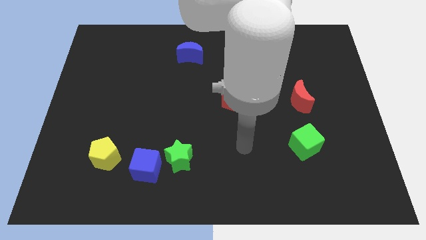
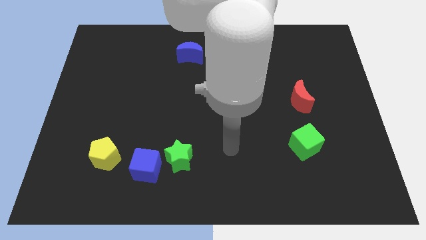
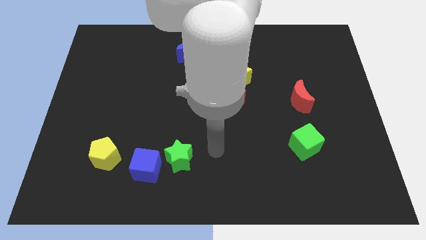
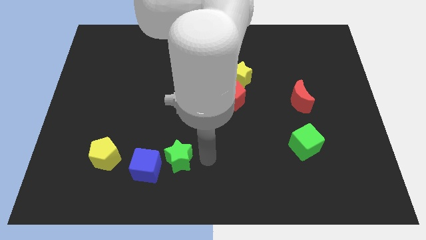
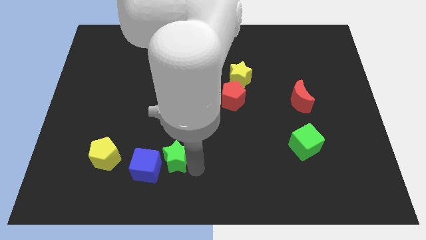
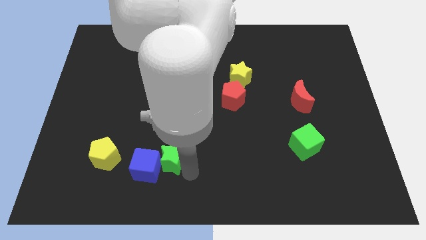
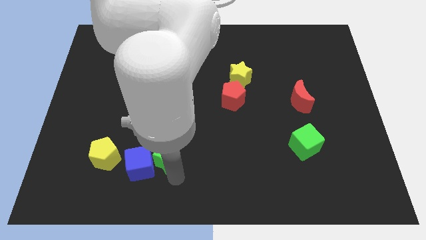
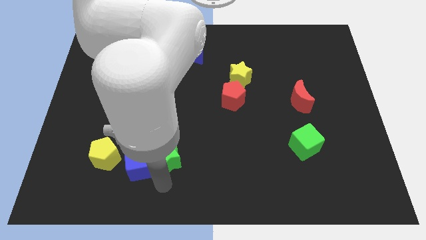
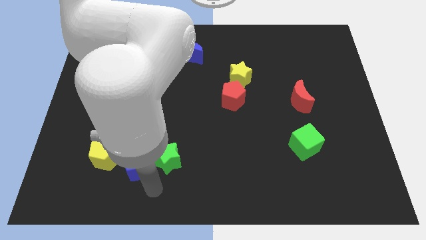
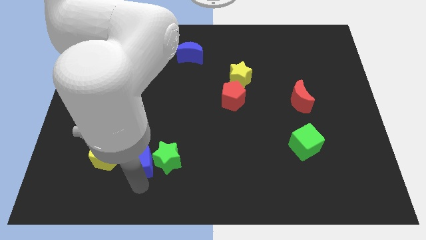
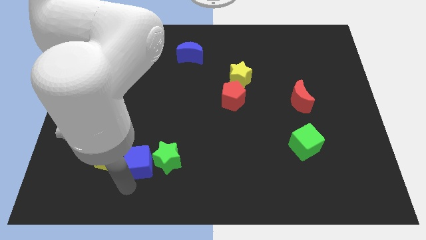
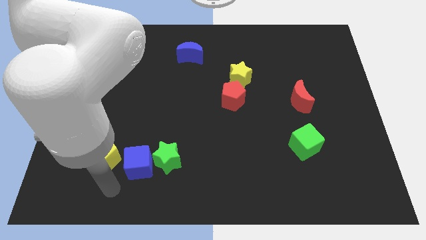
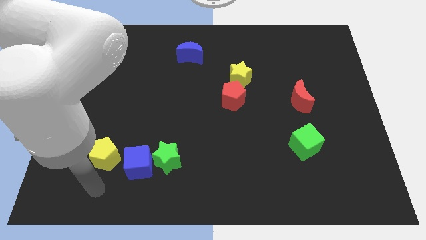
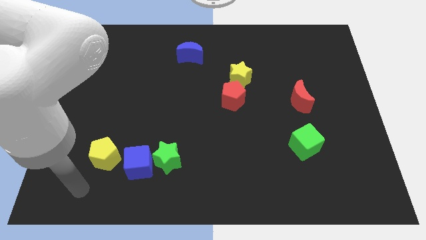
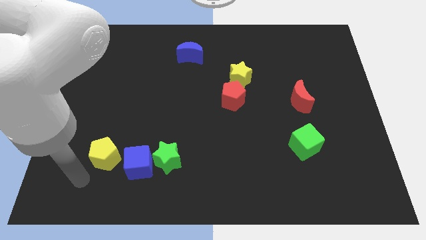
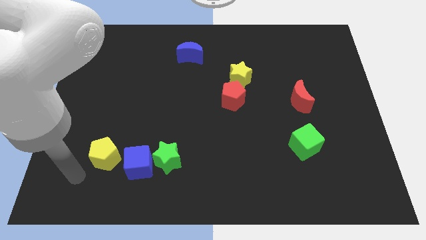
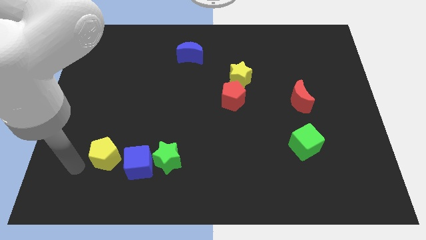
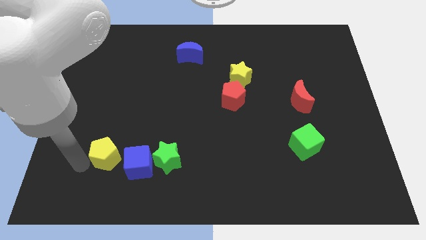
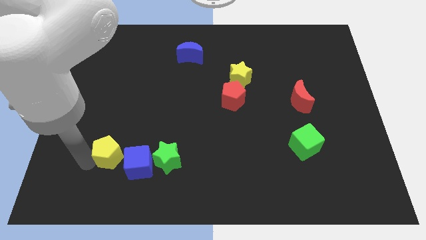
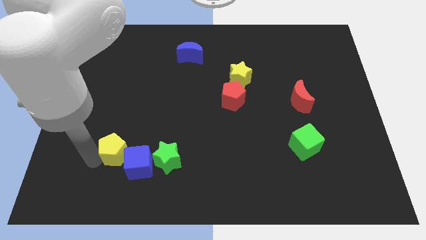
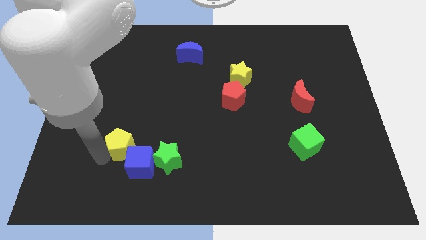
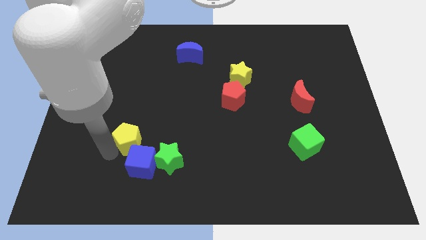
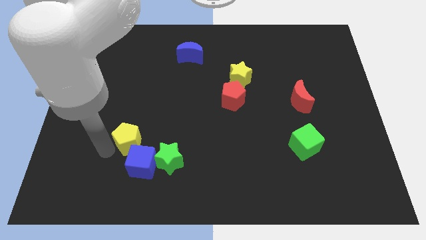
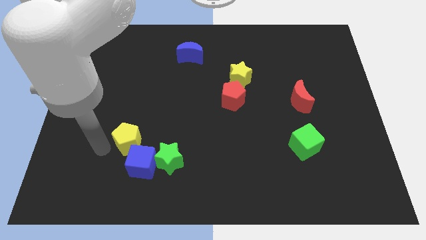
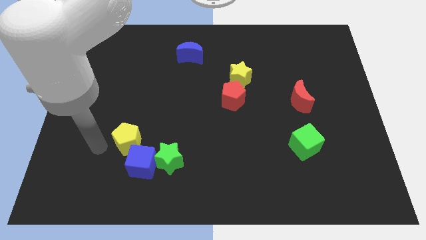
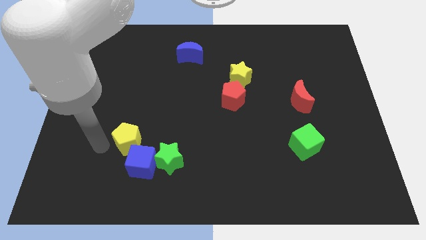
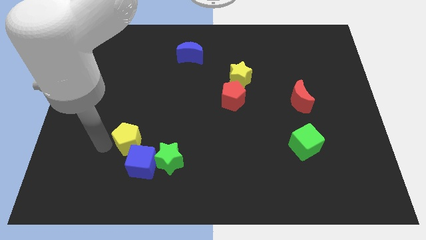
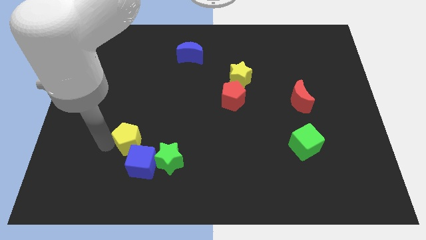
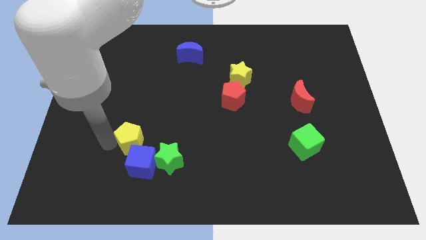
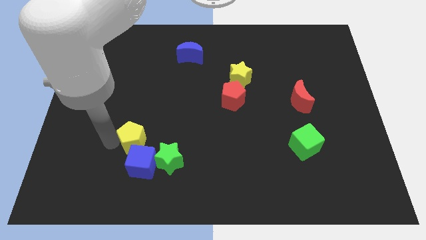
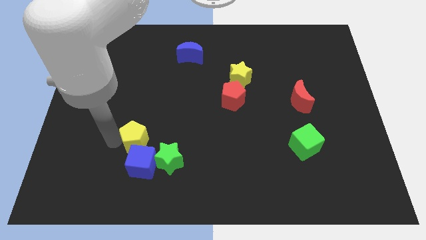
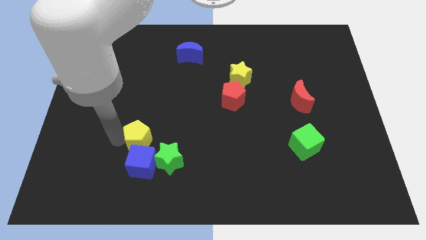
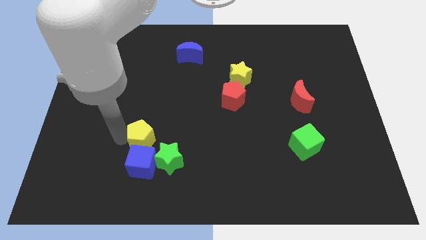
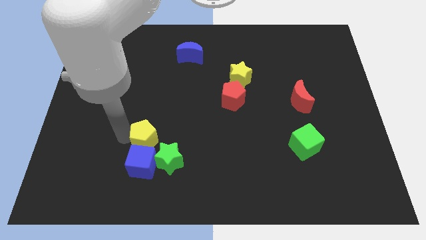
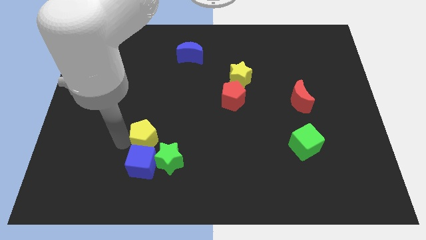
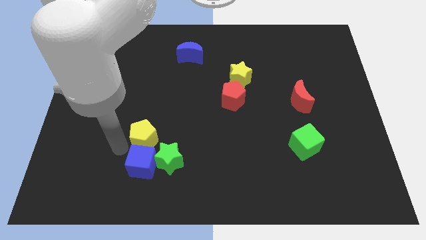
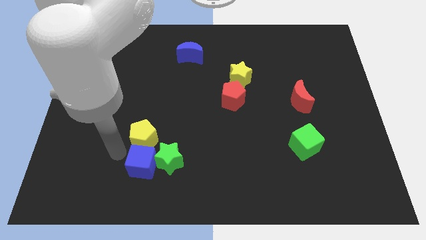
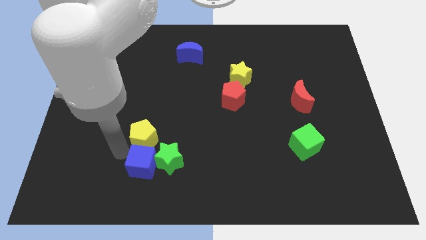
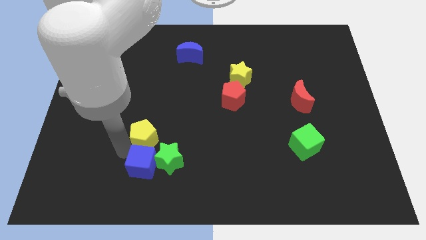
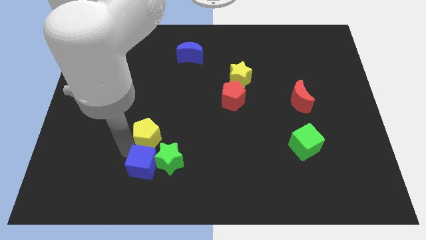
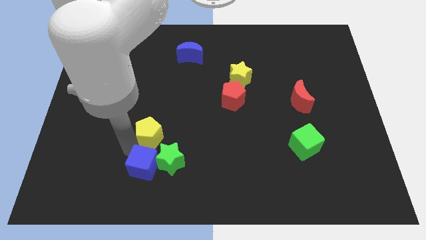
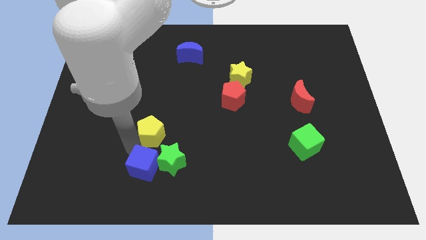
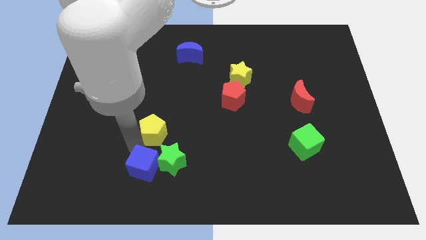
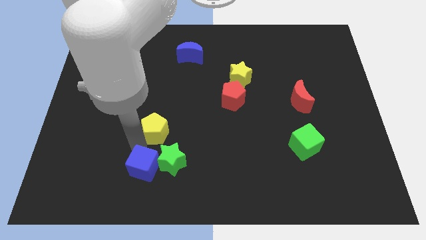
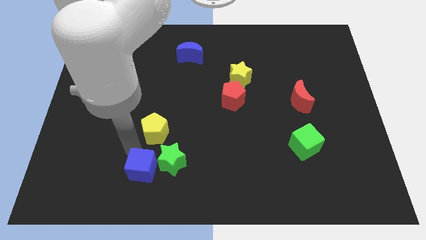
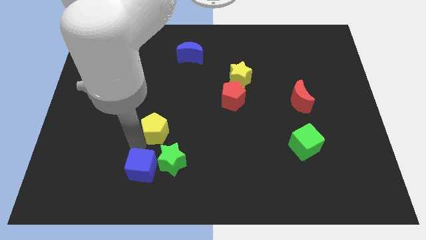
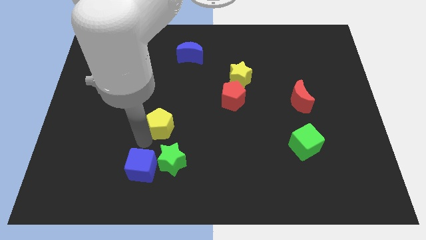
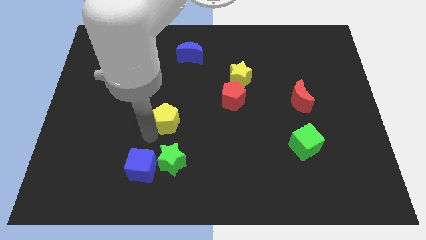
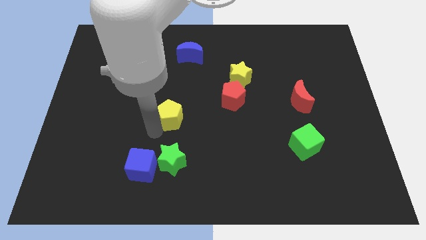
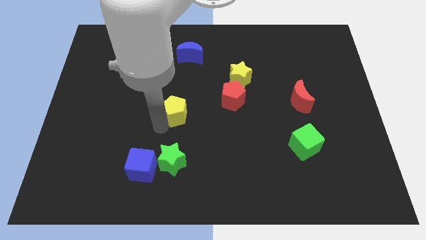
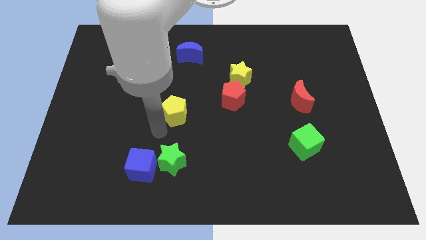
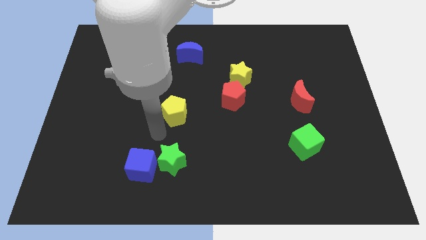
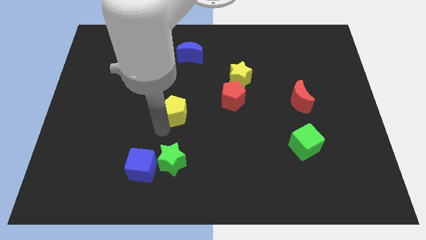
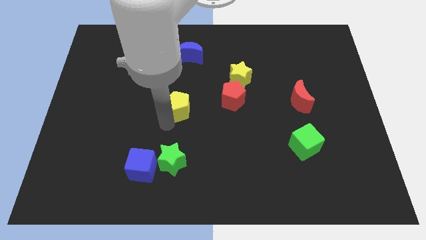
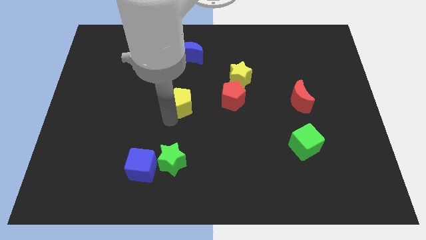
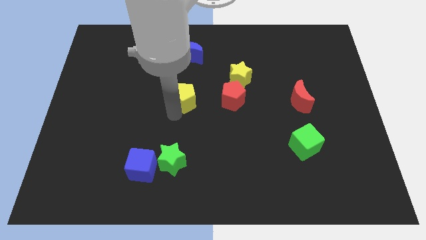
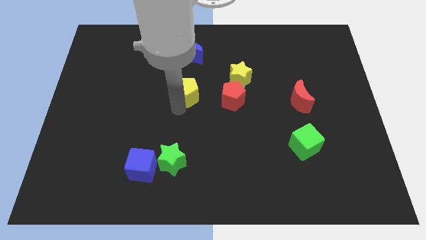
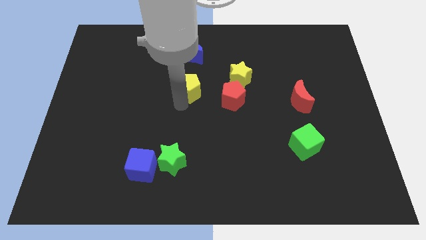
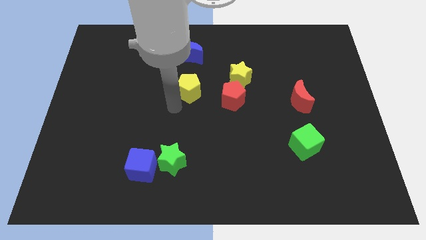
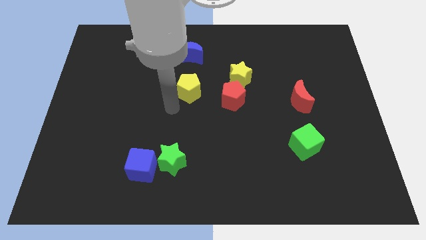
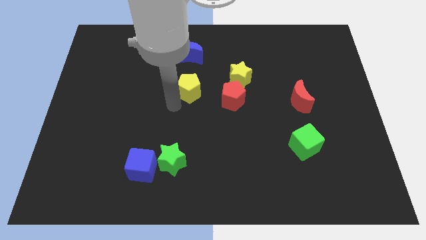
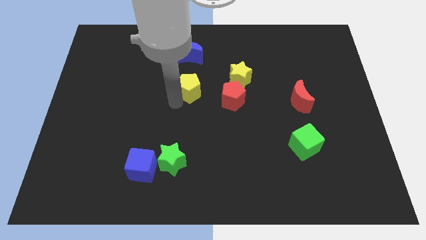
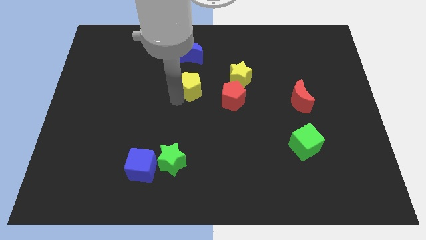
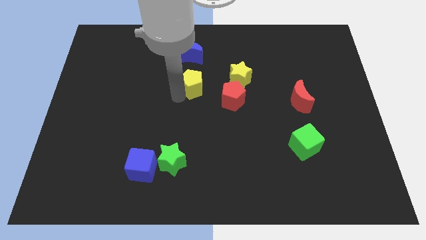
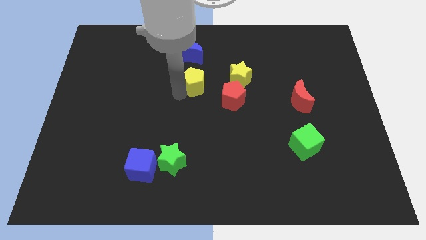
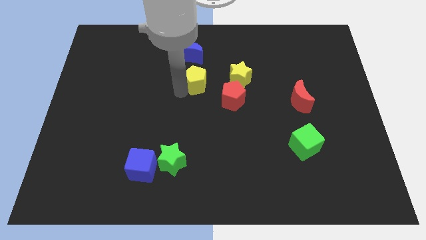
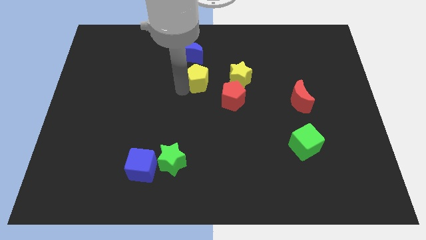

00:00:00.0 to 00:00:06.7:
slide the yellow pentagon to the bottom right of the blue moon
